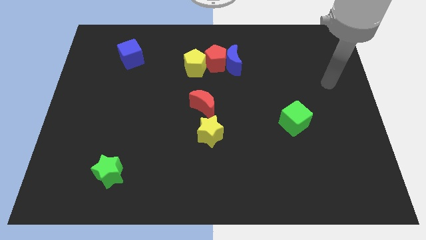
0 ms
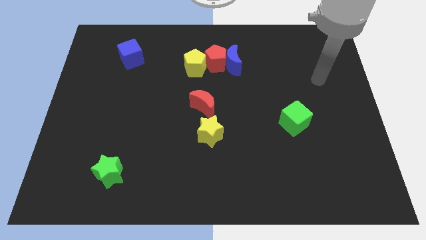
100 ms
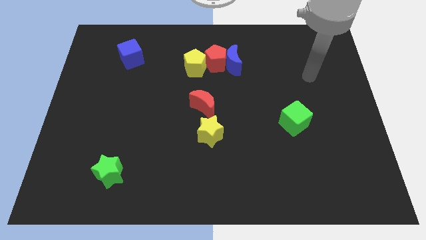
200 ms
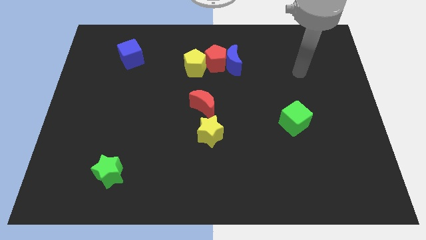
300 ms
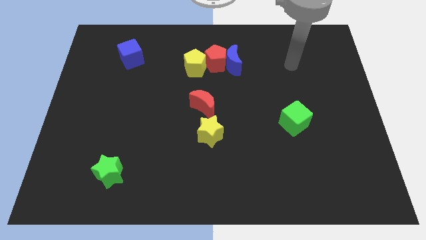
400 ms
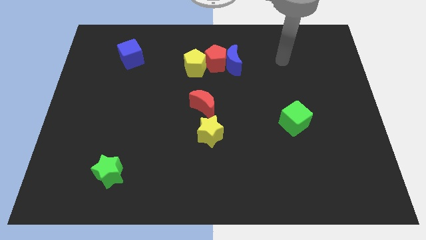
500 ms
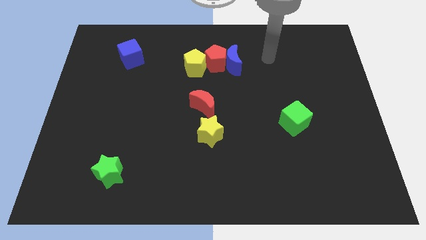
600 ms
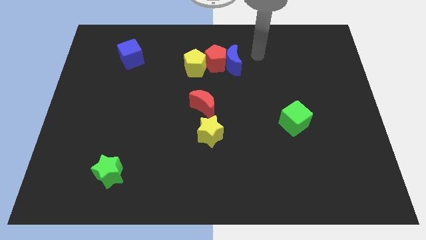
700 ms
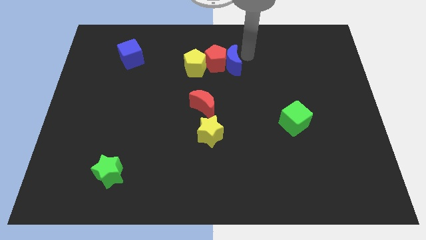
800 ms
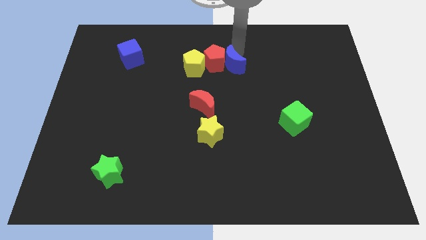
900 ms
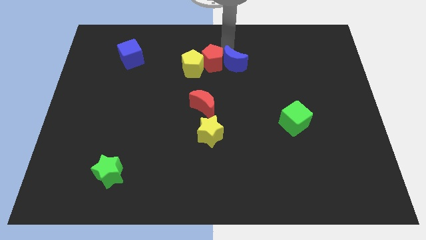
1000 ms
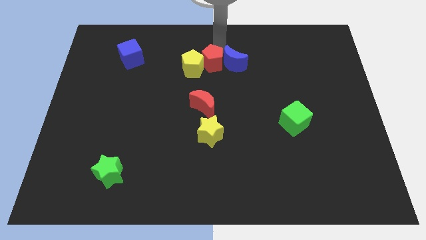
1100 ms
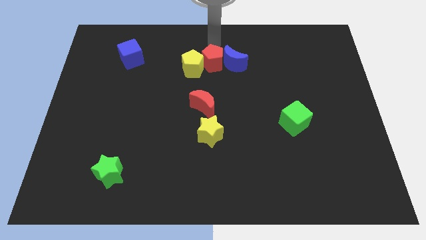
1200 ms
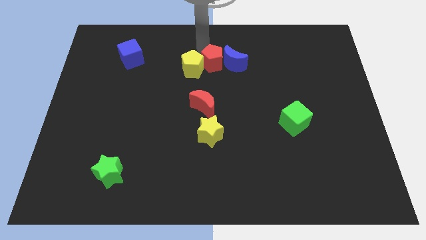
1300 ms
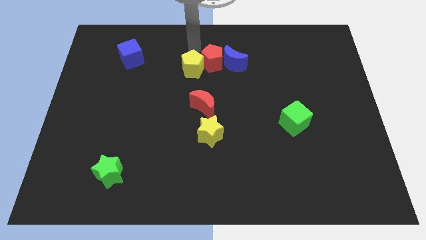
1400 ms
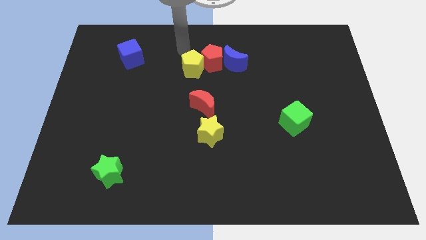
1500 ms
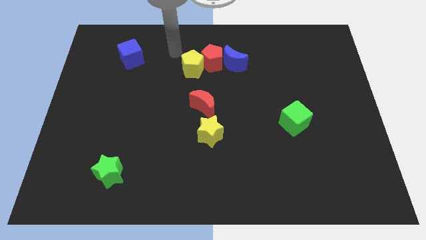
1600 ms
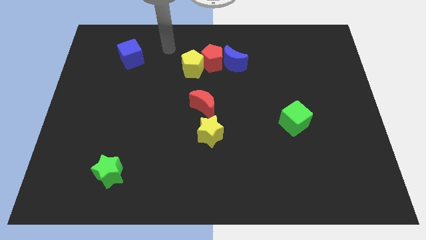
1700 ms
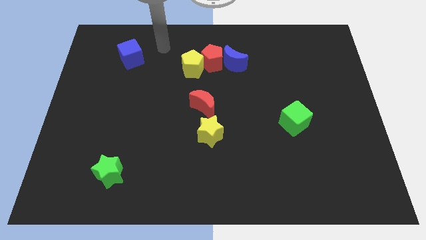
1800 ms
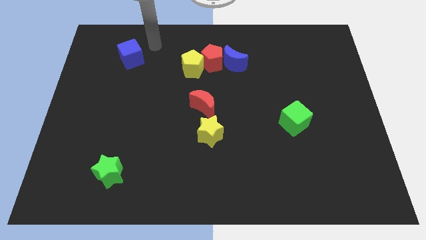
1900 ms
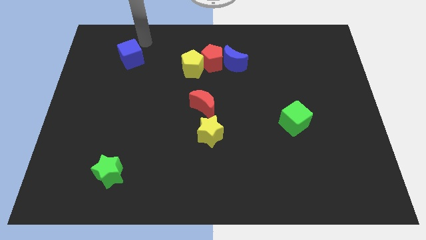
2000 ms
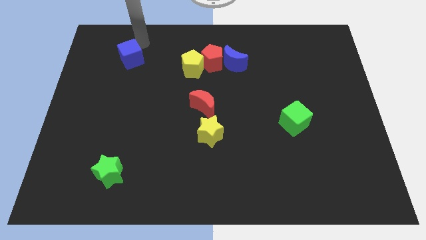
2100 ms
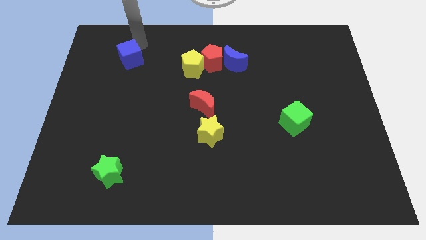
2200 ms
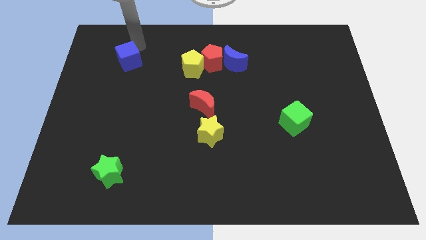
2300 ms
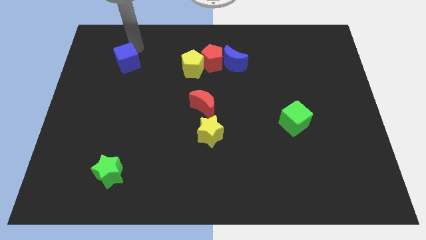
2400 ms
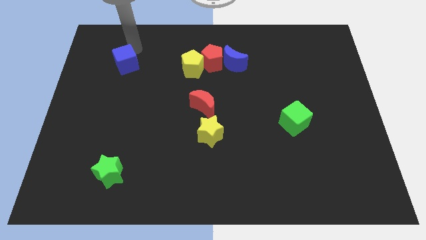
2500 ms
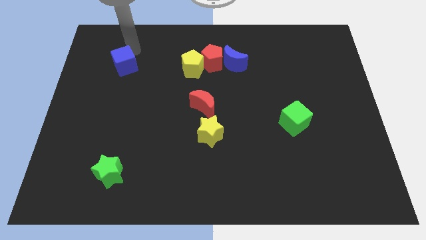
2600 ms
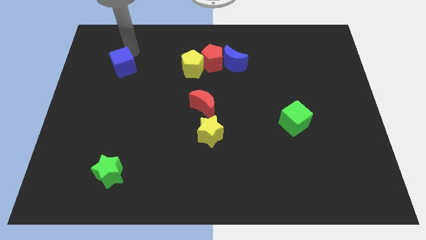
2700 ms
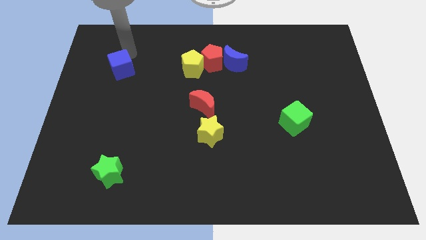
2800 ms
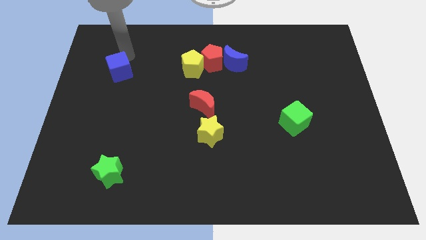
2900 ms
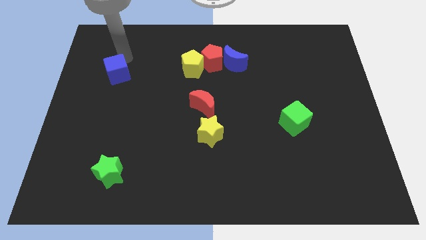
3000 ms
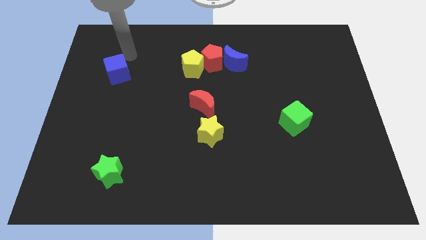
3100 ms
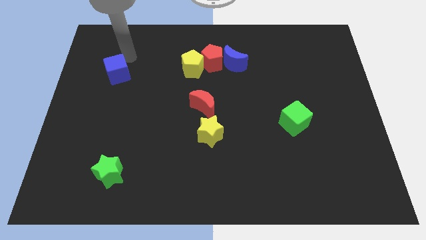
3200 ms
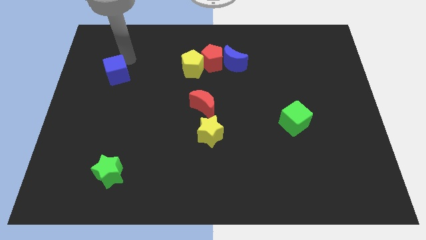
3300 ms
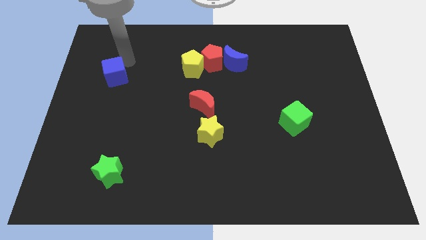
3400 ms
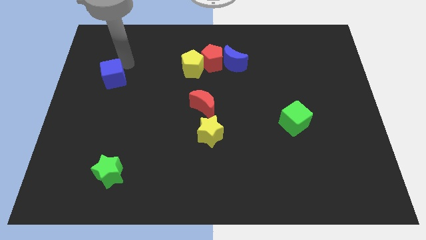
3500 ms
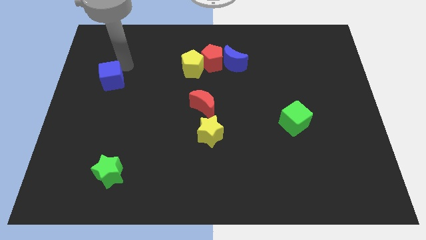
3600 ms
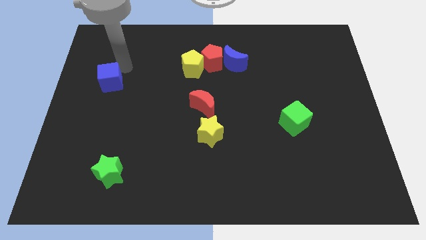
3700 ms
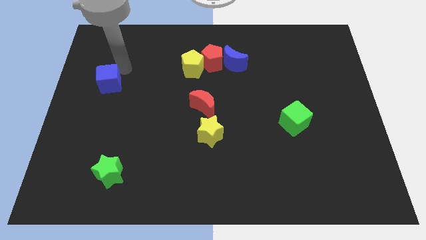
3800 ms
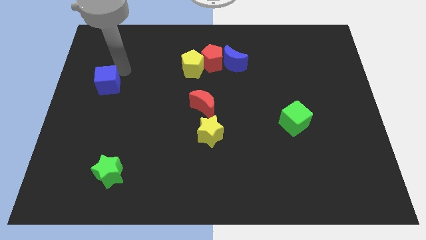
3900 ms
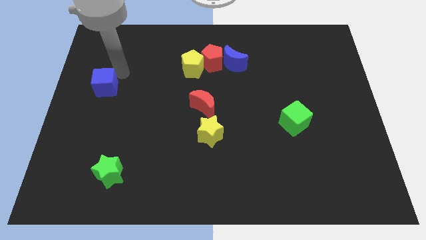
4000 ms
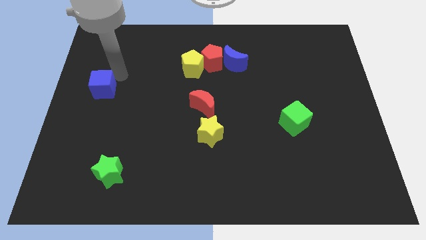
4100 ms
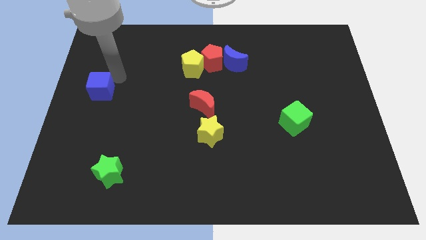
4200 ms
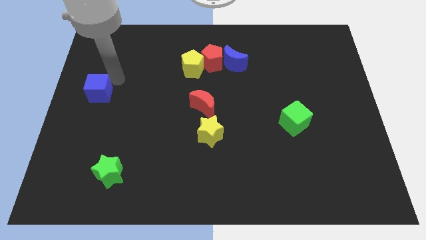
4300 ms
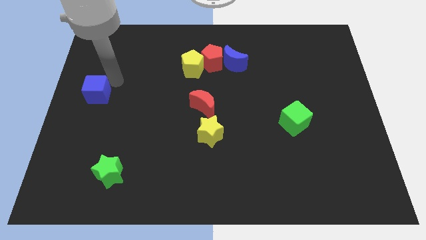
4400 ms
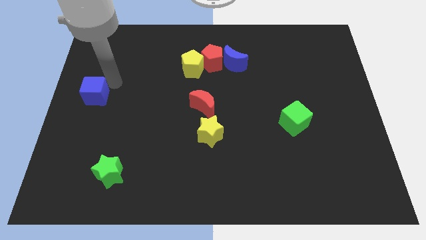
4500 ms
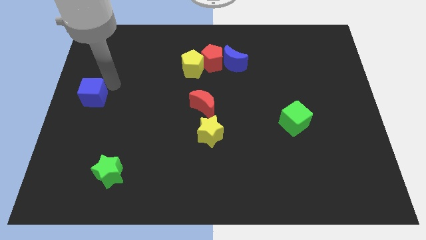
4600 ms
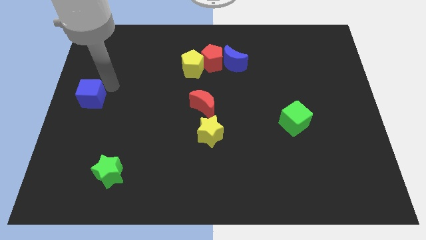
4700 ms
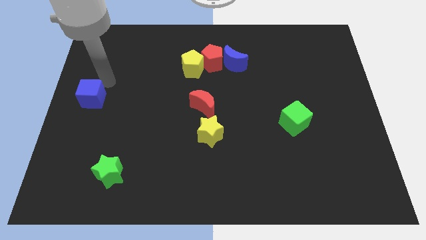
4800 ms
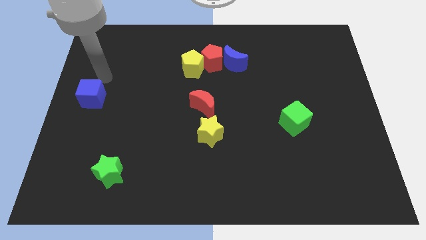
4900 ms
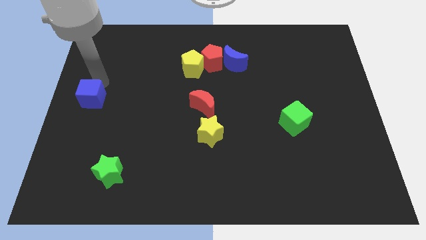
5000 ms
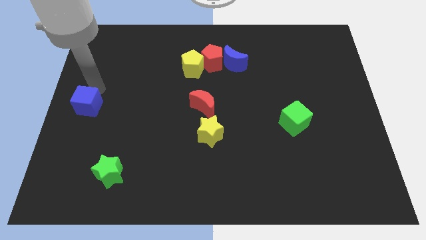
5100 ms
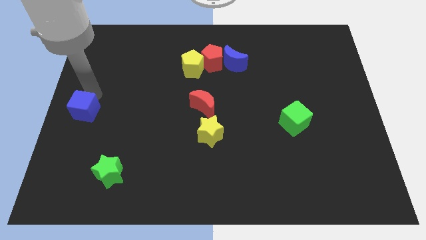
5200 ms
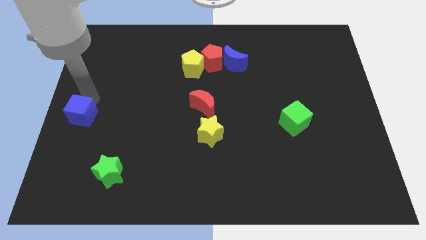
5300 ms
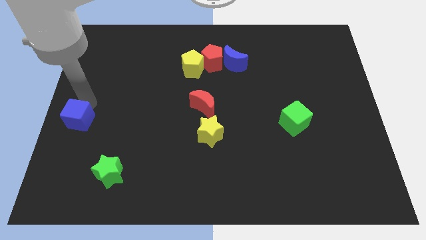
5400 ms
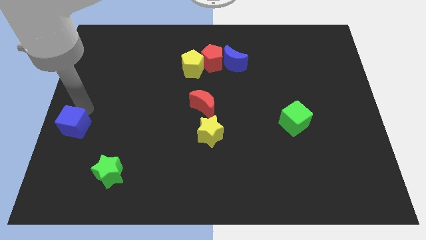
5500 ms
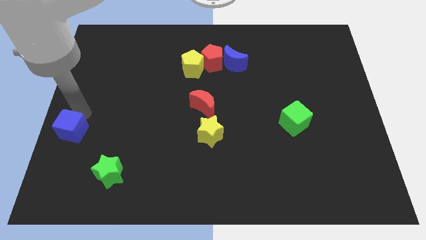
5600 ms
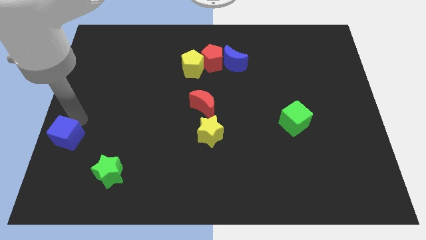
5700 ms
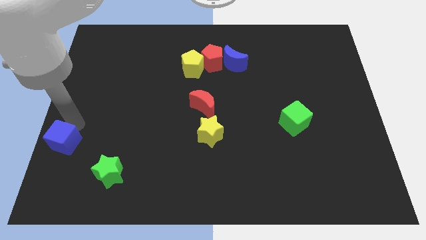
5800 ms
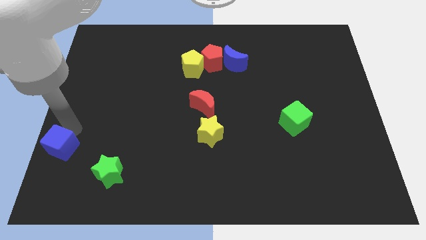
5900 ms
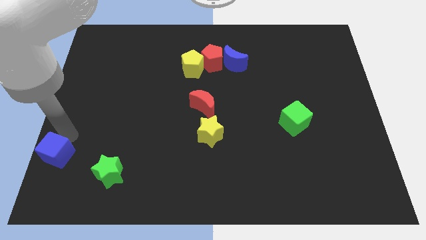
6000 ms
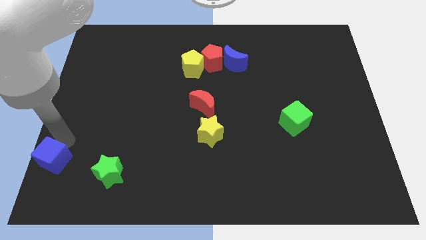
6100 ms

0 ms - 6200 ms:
put the blue cube to the bottom left

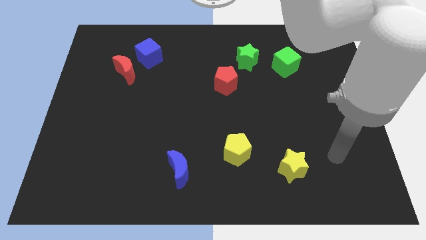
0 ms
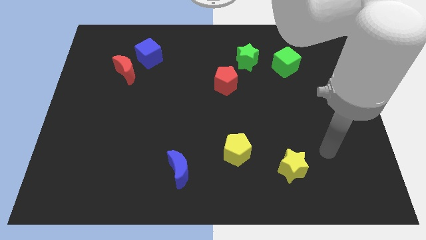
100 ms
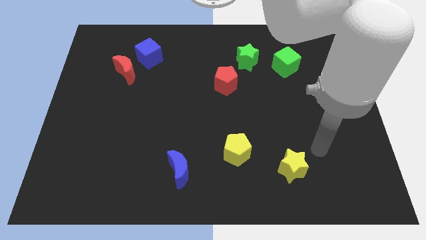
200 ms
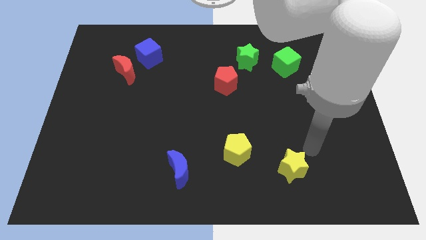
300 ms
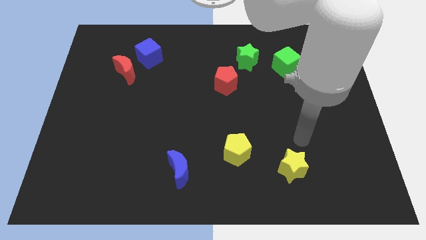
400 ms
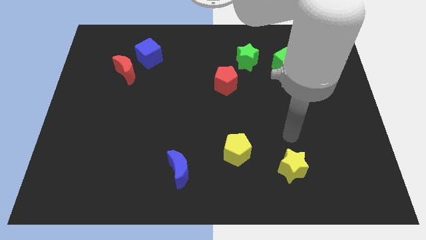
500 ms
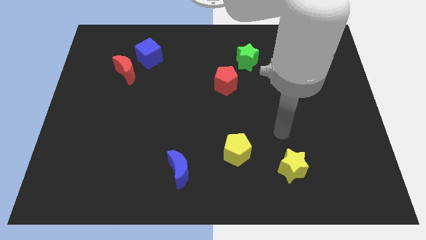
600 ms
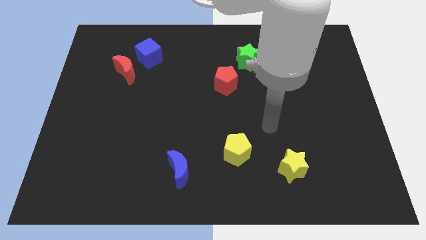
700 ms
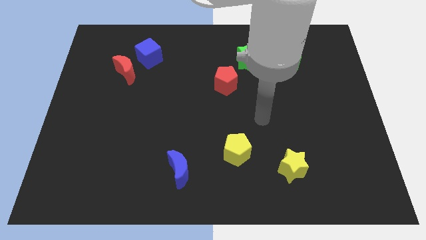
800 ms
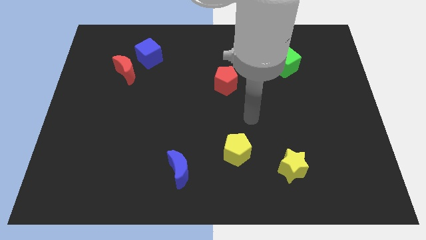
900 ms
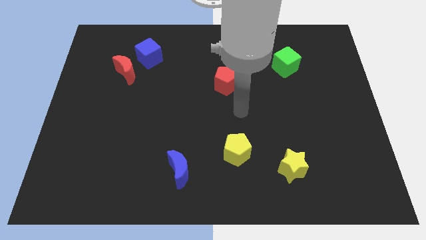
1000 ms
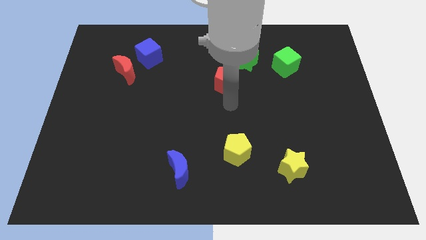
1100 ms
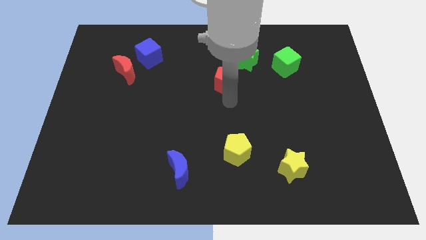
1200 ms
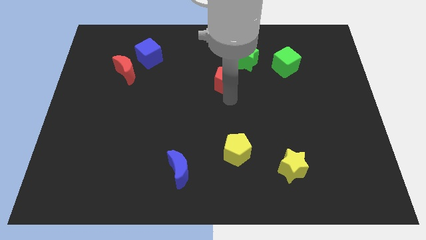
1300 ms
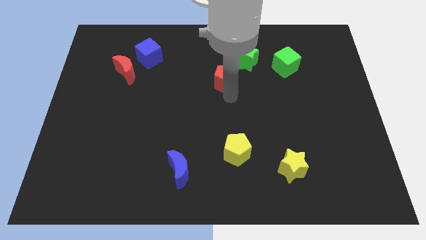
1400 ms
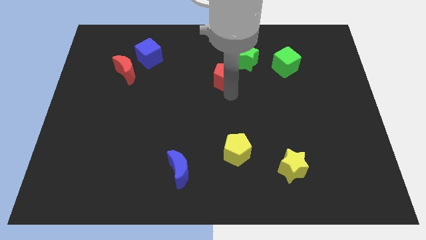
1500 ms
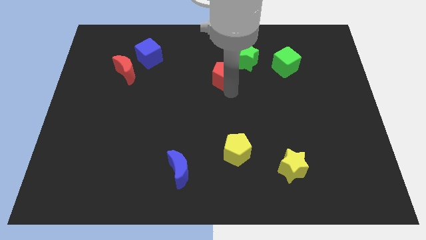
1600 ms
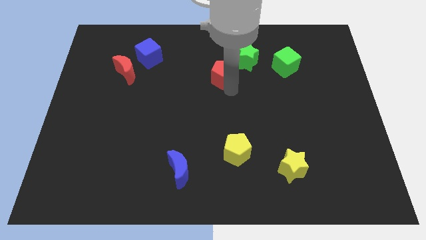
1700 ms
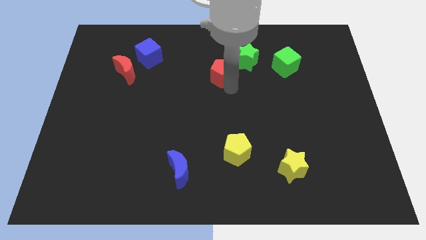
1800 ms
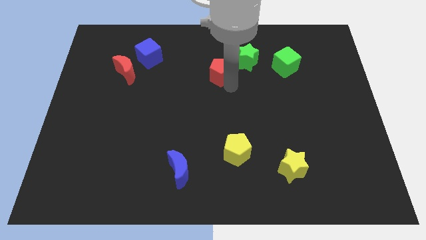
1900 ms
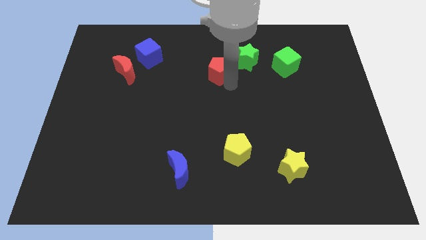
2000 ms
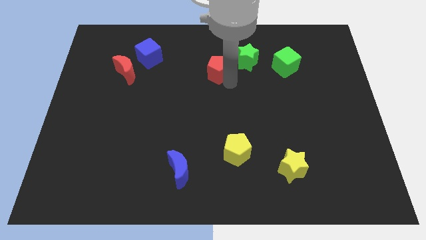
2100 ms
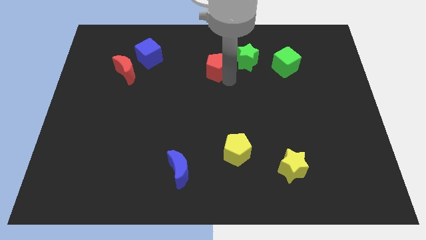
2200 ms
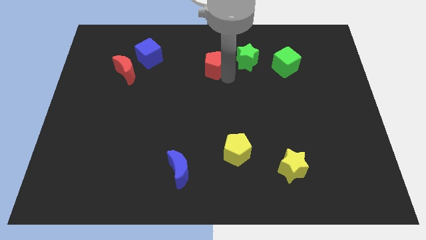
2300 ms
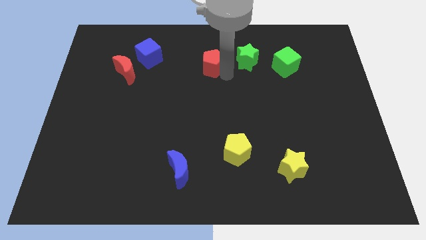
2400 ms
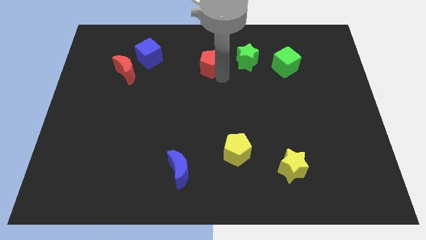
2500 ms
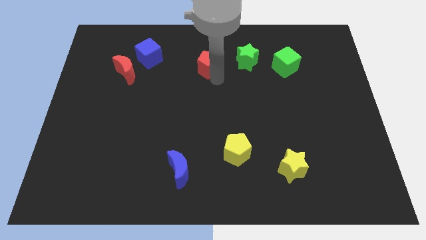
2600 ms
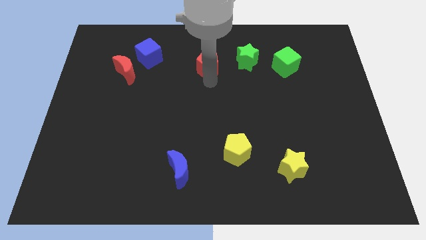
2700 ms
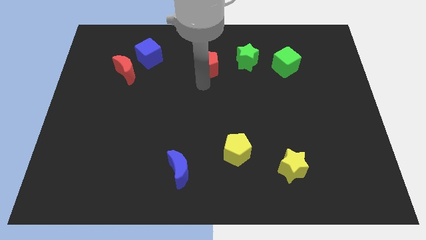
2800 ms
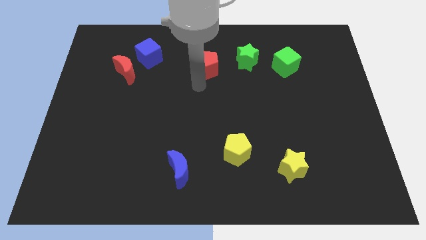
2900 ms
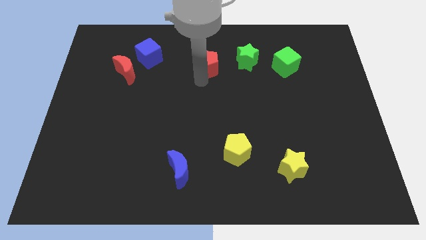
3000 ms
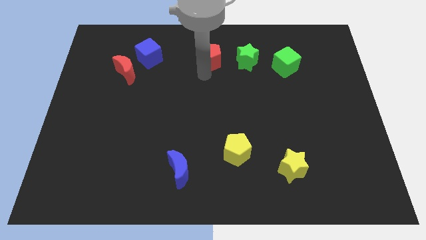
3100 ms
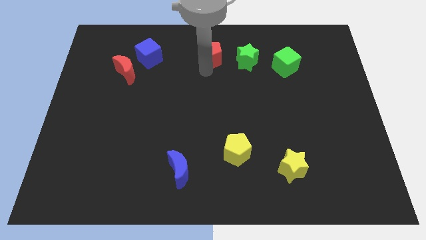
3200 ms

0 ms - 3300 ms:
slide the red pentagon to the top
